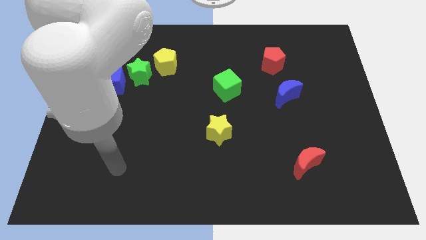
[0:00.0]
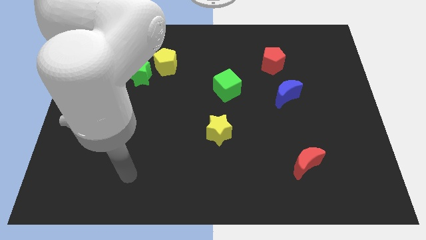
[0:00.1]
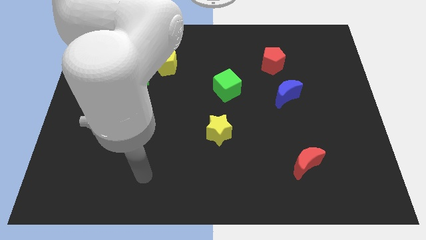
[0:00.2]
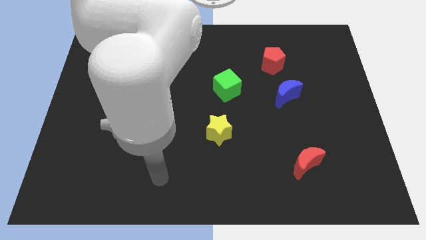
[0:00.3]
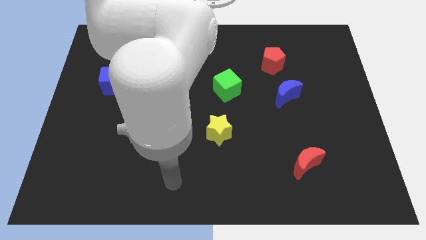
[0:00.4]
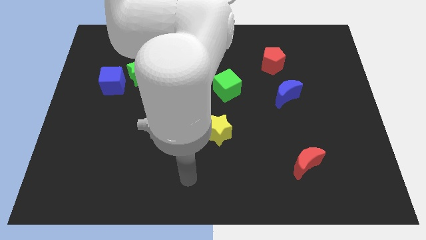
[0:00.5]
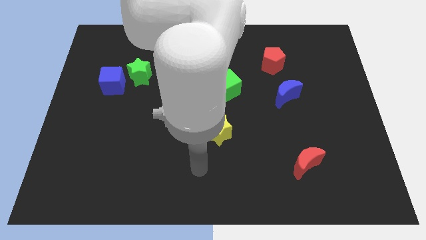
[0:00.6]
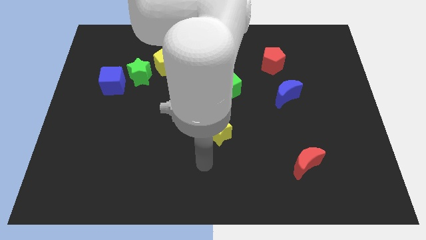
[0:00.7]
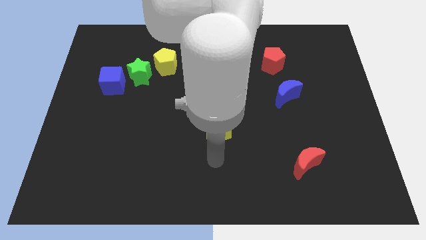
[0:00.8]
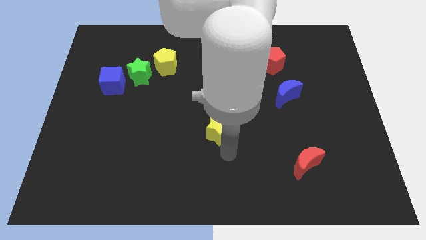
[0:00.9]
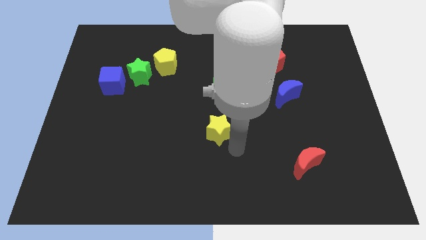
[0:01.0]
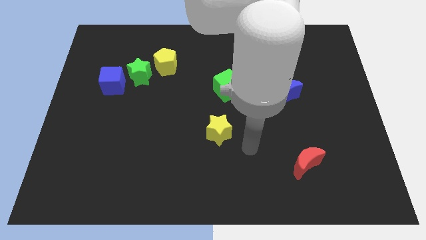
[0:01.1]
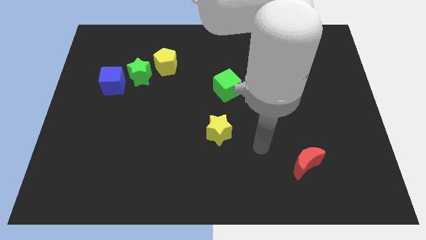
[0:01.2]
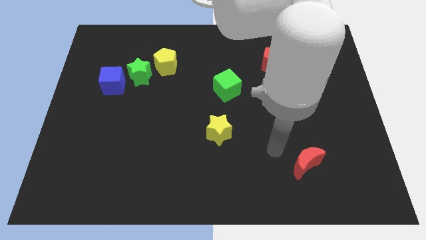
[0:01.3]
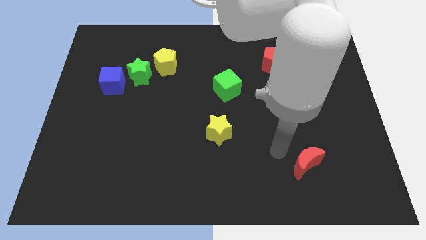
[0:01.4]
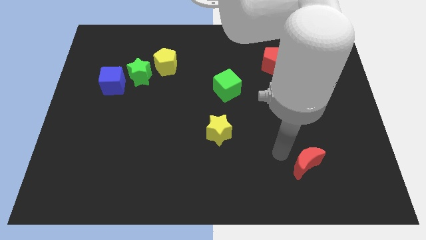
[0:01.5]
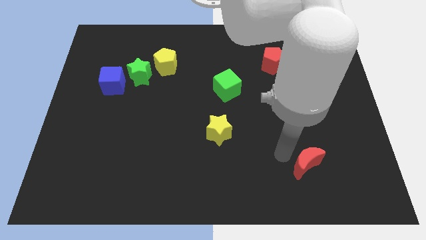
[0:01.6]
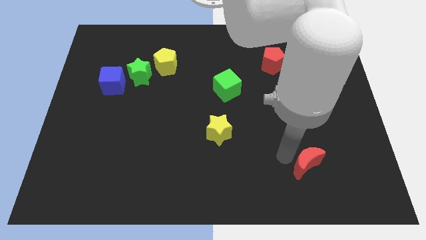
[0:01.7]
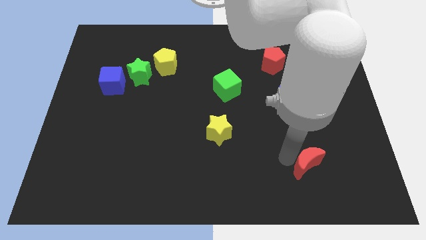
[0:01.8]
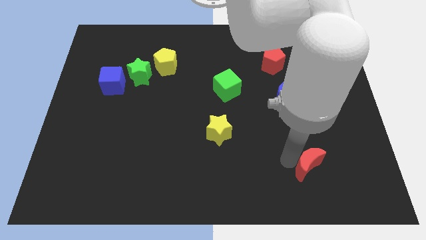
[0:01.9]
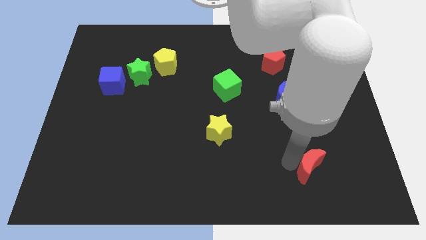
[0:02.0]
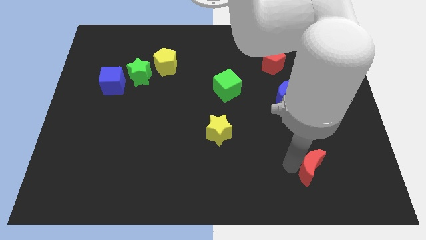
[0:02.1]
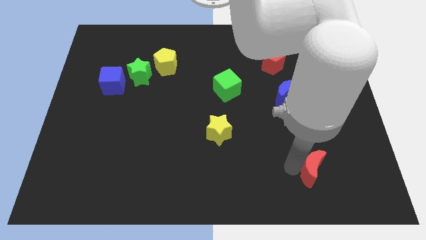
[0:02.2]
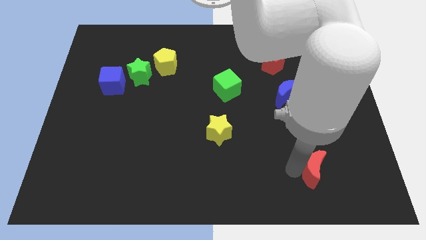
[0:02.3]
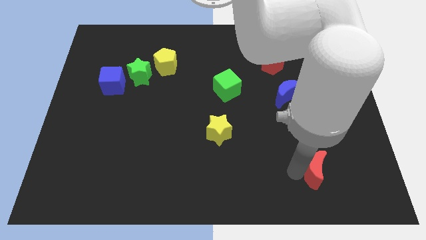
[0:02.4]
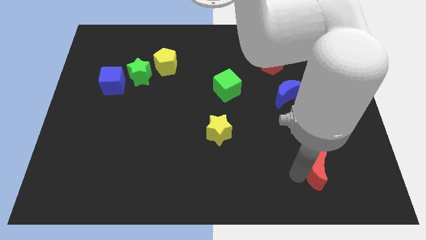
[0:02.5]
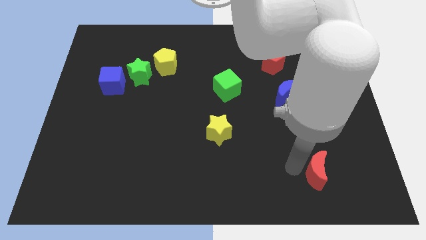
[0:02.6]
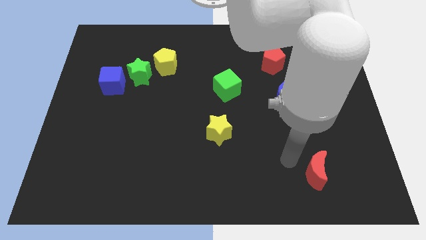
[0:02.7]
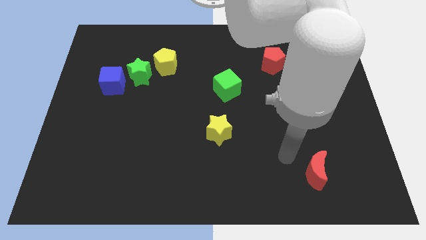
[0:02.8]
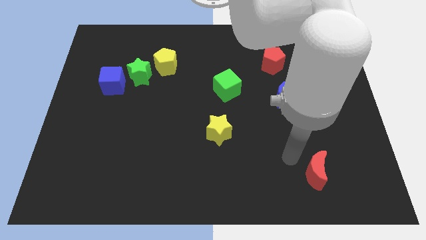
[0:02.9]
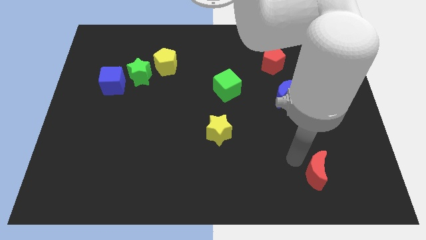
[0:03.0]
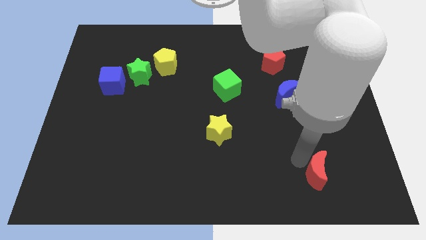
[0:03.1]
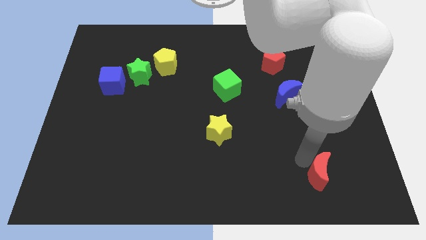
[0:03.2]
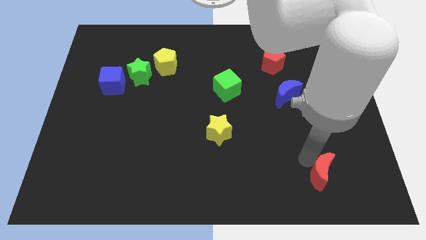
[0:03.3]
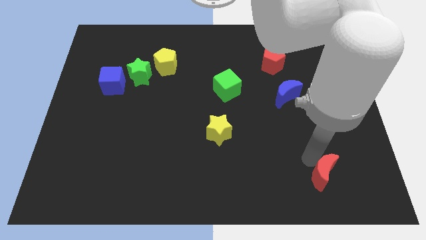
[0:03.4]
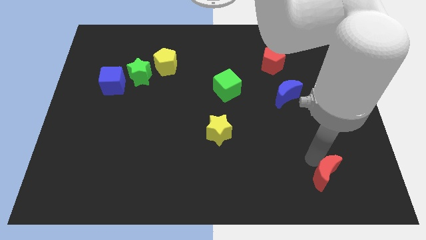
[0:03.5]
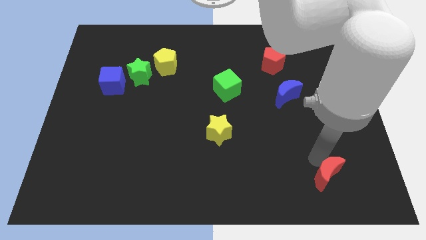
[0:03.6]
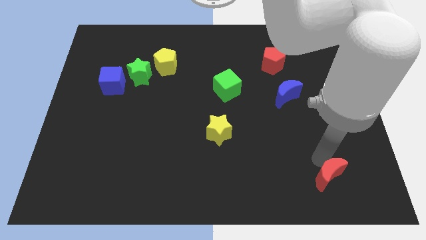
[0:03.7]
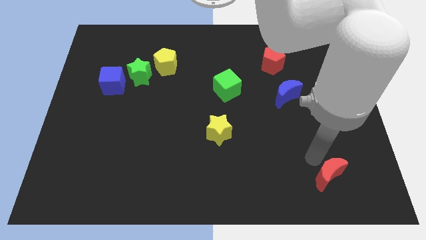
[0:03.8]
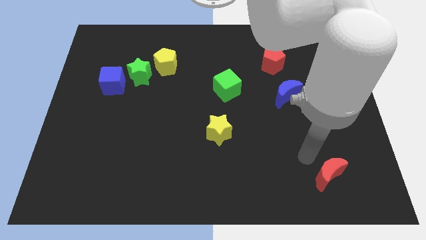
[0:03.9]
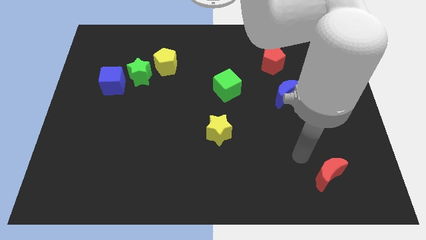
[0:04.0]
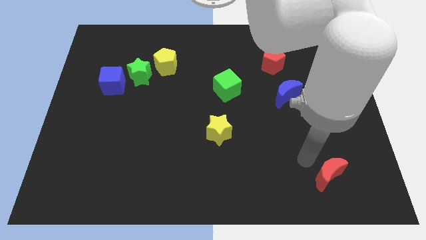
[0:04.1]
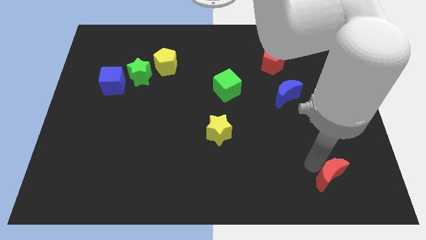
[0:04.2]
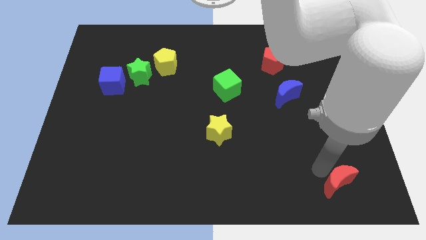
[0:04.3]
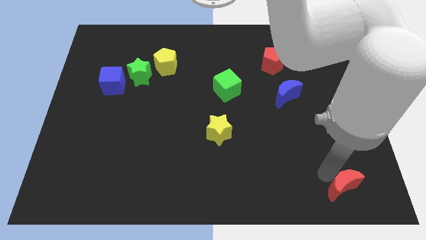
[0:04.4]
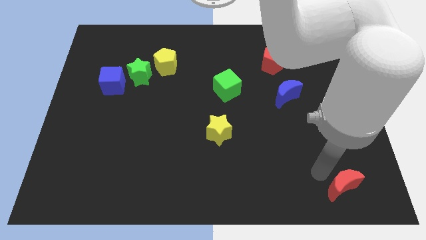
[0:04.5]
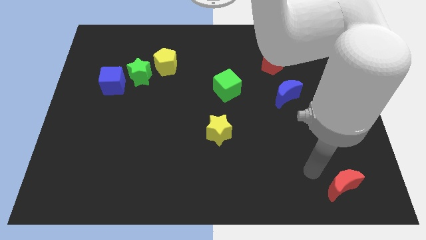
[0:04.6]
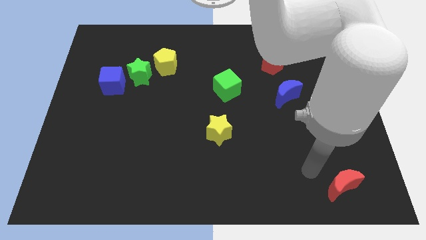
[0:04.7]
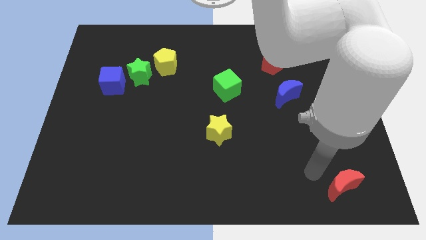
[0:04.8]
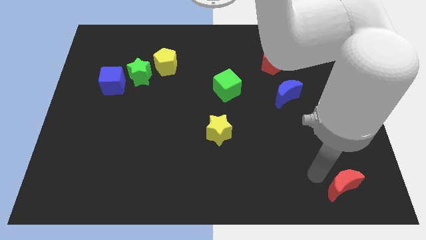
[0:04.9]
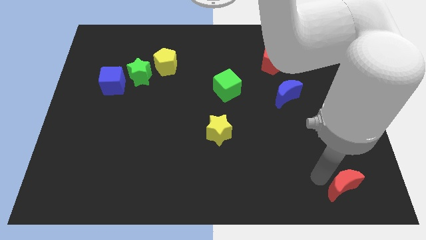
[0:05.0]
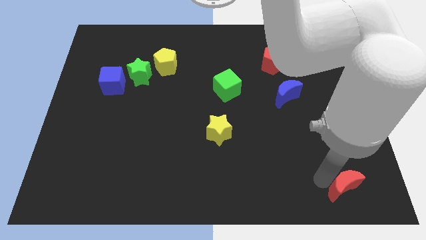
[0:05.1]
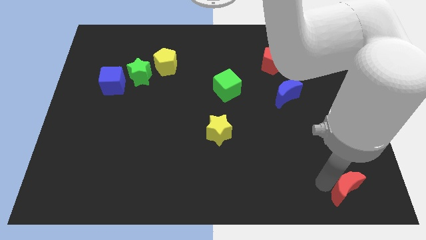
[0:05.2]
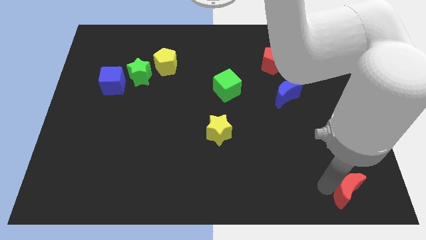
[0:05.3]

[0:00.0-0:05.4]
push the red moon to the bottom right

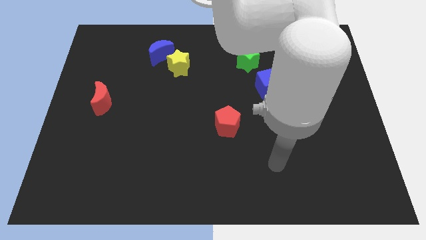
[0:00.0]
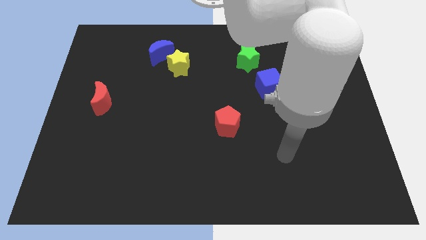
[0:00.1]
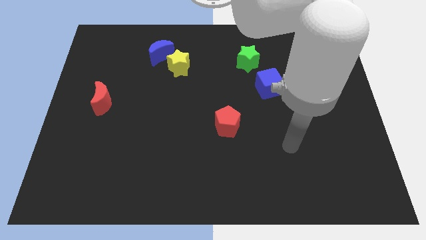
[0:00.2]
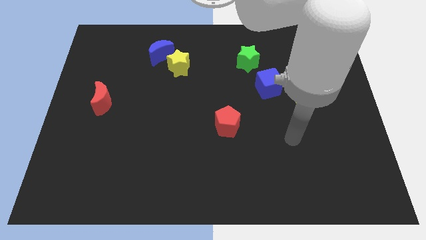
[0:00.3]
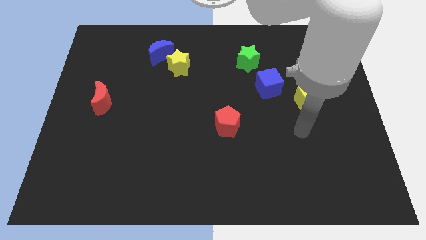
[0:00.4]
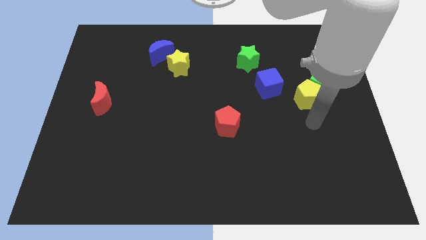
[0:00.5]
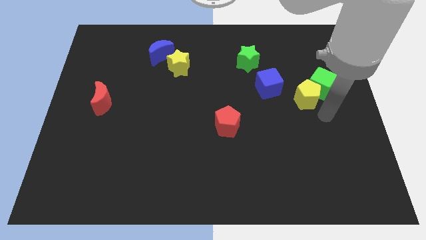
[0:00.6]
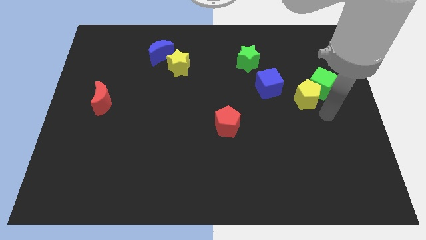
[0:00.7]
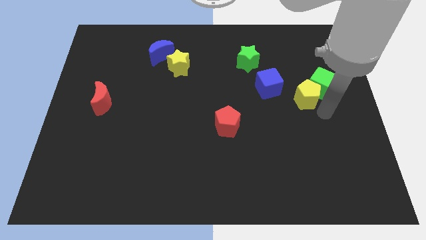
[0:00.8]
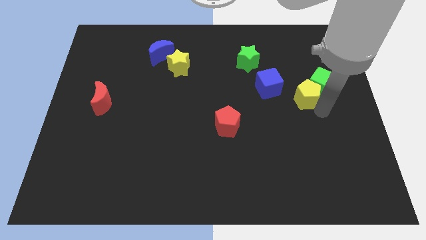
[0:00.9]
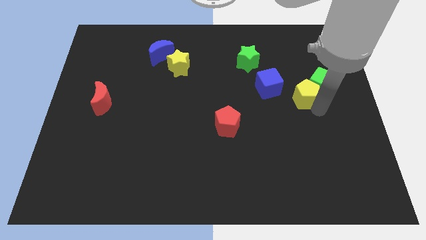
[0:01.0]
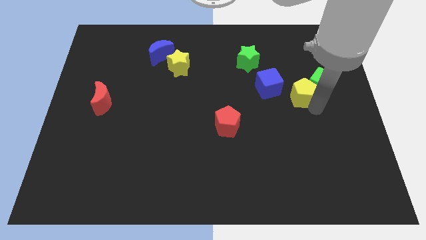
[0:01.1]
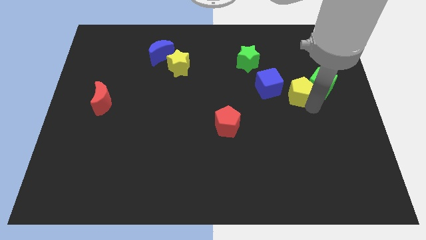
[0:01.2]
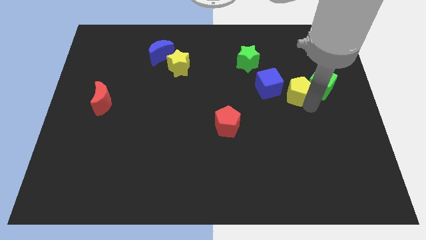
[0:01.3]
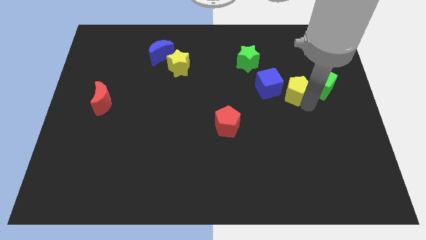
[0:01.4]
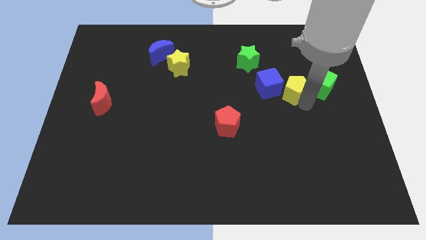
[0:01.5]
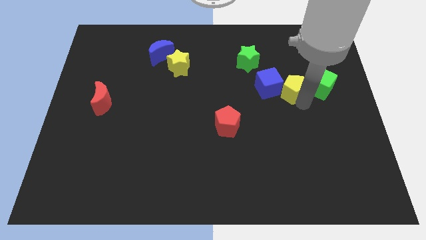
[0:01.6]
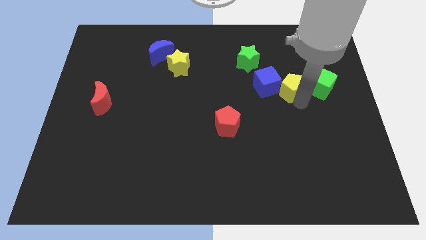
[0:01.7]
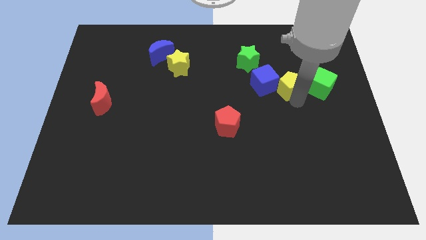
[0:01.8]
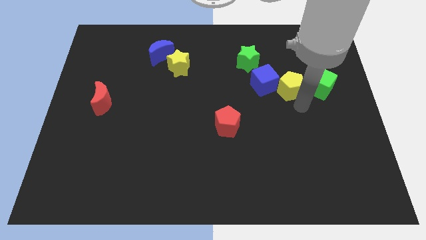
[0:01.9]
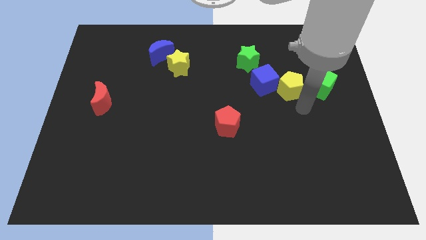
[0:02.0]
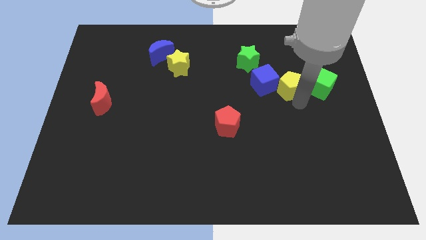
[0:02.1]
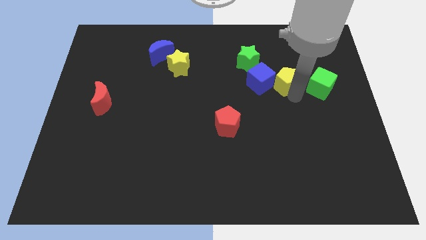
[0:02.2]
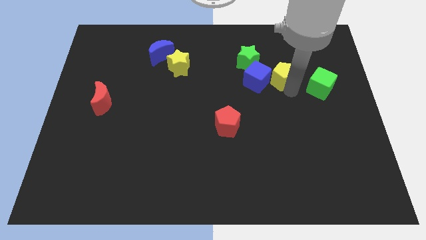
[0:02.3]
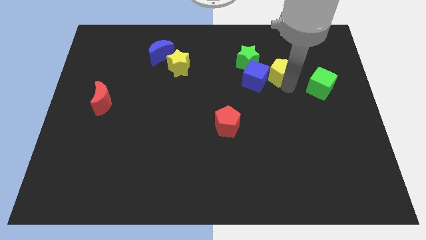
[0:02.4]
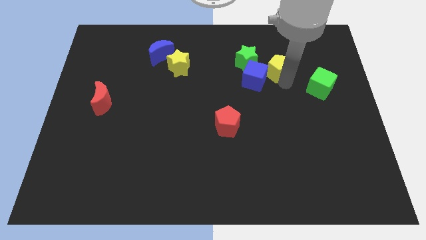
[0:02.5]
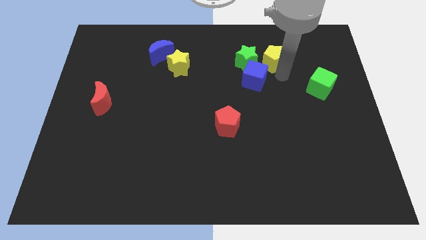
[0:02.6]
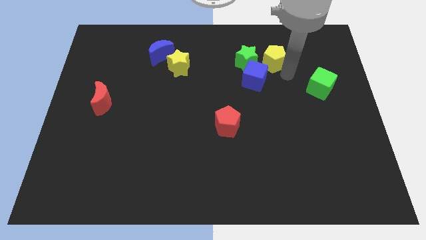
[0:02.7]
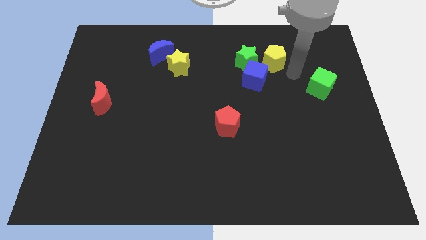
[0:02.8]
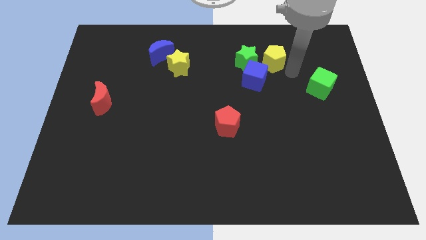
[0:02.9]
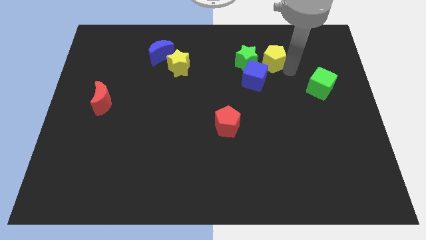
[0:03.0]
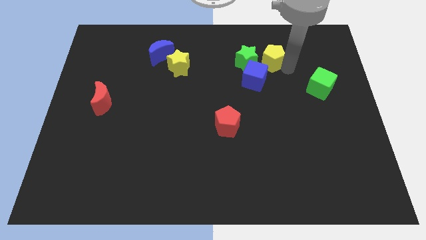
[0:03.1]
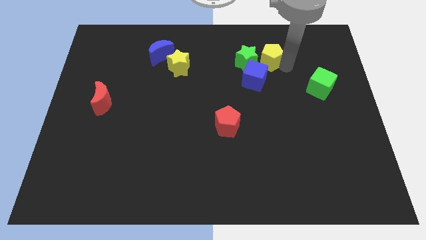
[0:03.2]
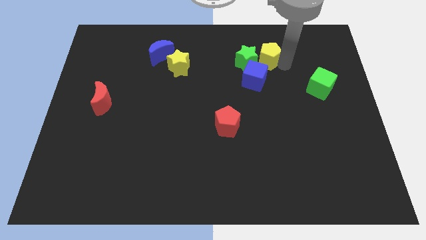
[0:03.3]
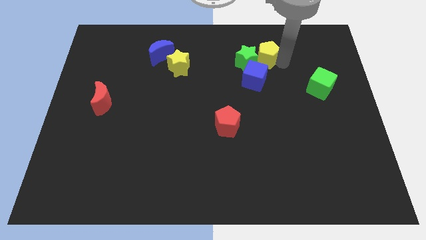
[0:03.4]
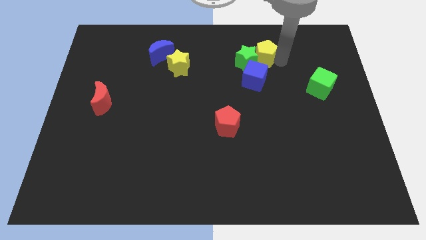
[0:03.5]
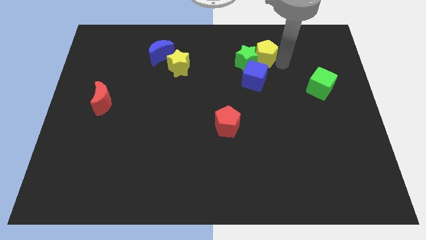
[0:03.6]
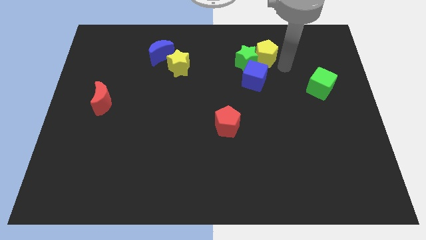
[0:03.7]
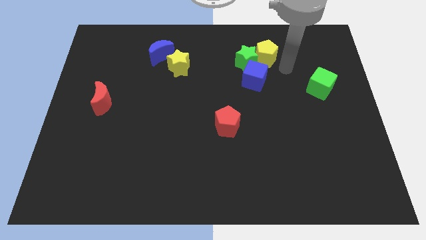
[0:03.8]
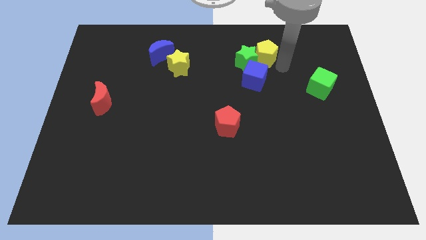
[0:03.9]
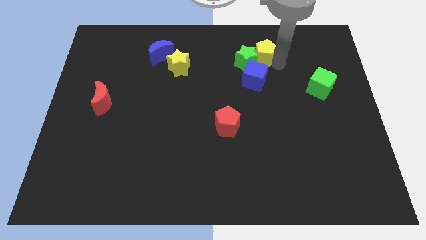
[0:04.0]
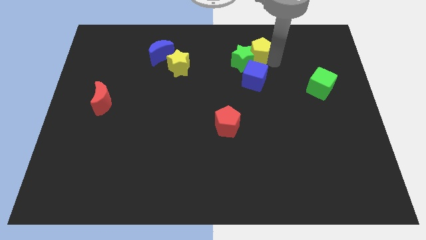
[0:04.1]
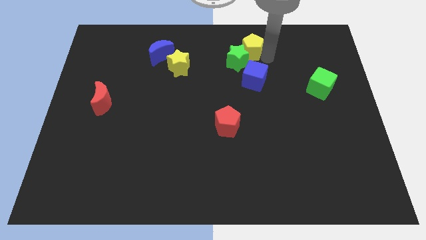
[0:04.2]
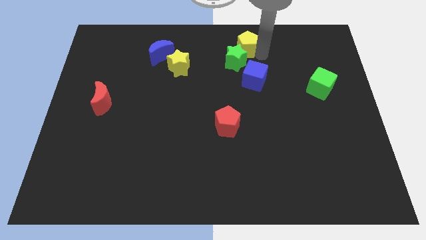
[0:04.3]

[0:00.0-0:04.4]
move the yellow pentagon to the top side
